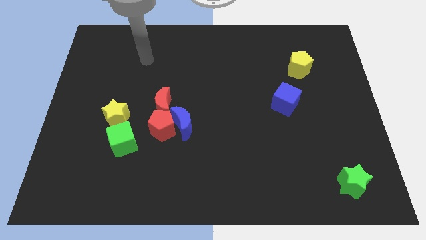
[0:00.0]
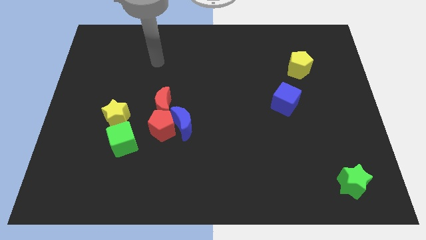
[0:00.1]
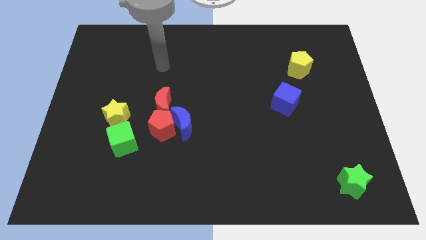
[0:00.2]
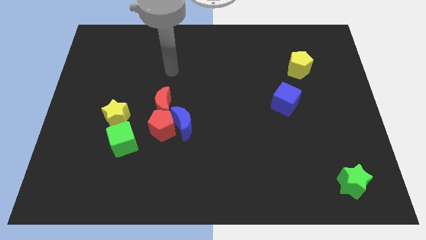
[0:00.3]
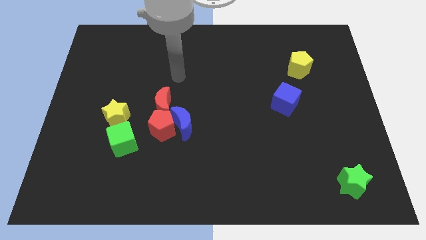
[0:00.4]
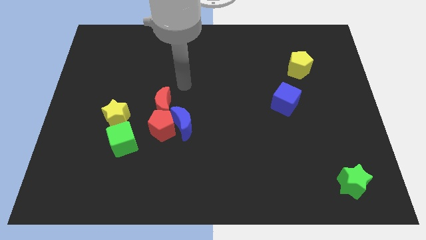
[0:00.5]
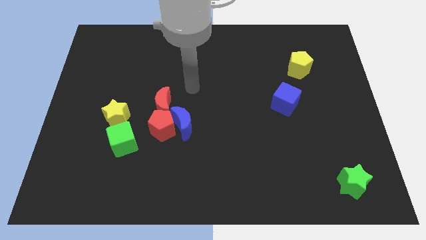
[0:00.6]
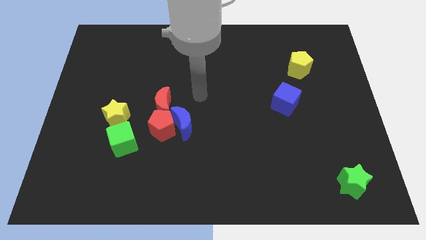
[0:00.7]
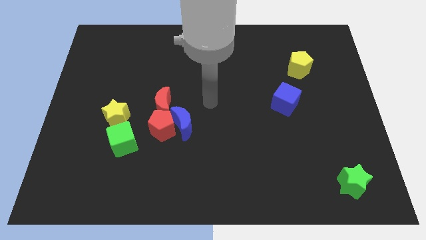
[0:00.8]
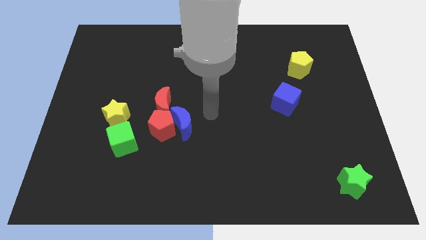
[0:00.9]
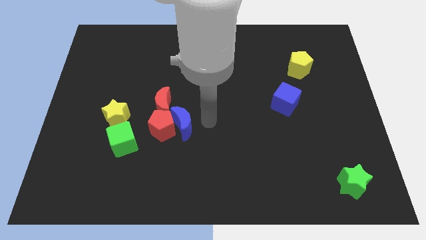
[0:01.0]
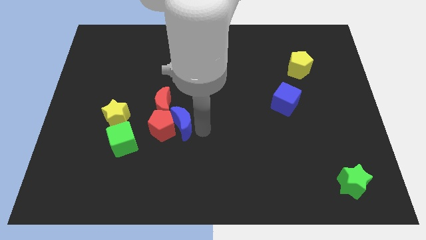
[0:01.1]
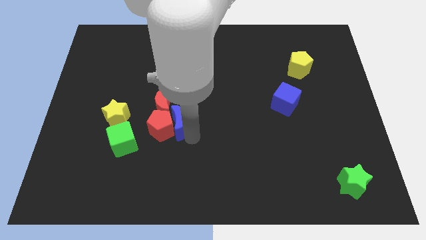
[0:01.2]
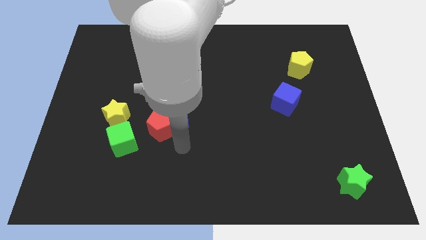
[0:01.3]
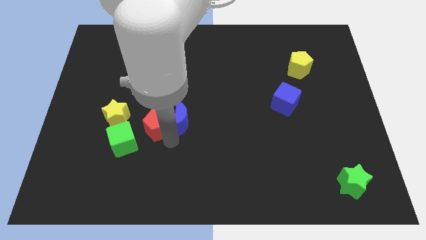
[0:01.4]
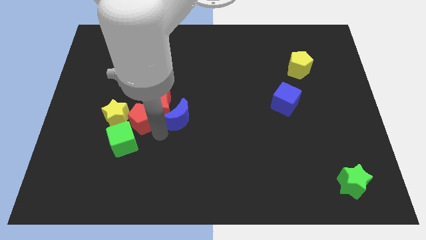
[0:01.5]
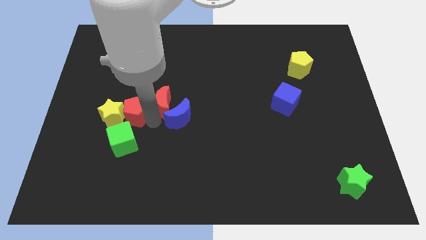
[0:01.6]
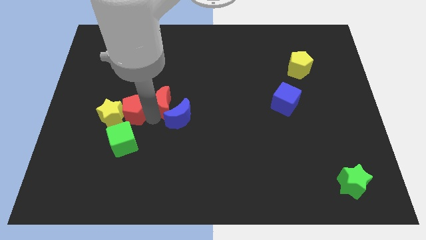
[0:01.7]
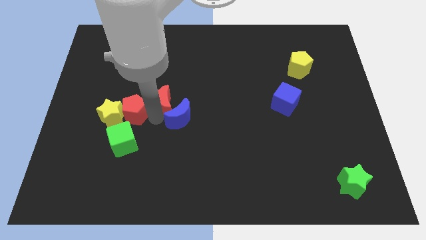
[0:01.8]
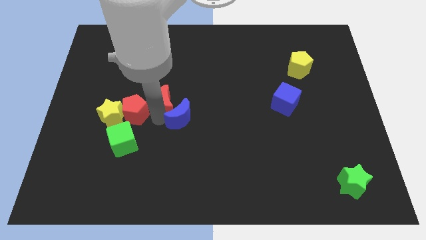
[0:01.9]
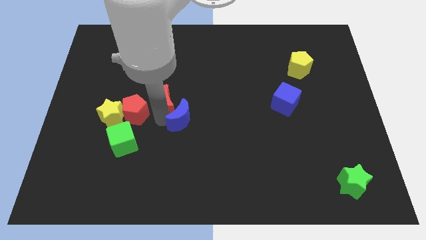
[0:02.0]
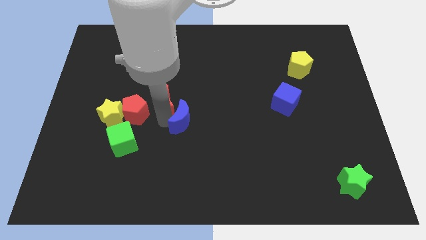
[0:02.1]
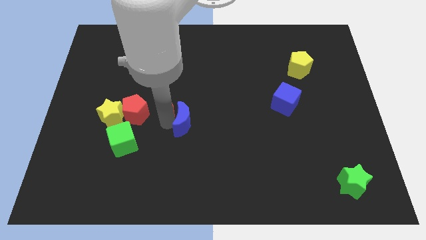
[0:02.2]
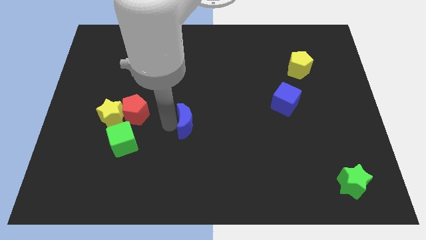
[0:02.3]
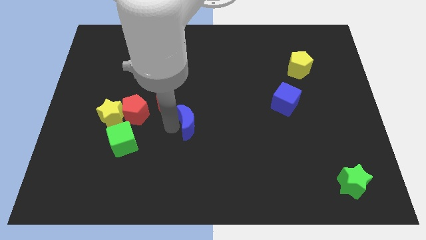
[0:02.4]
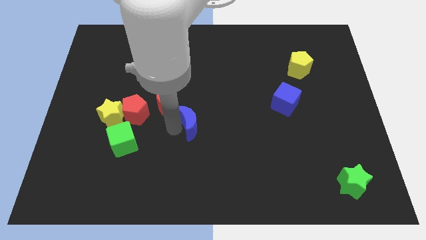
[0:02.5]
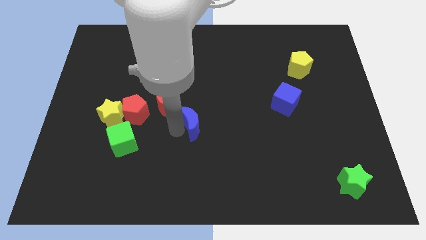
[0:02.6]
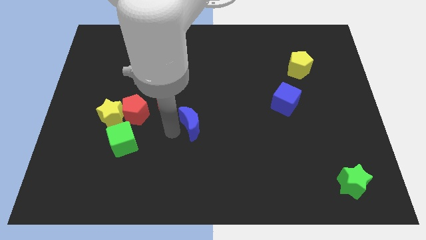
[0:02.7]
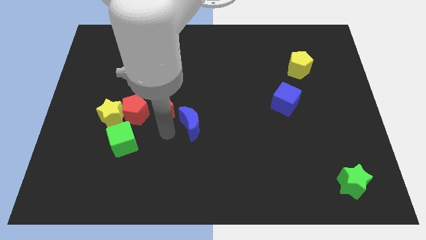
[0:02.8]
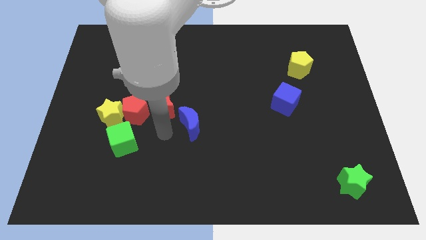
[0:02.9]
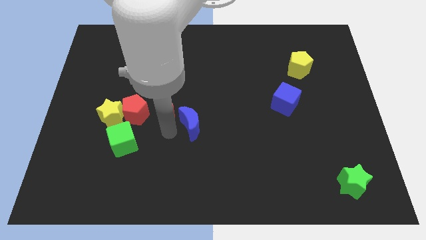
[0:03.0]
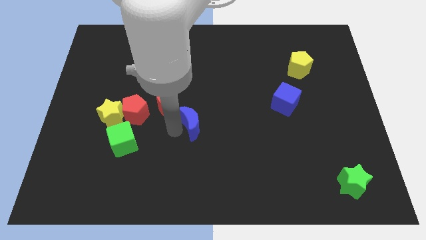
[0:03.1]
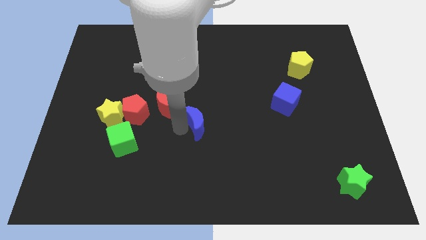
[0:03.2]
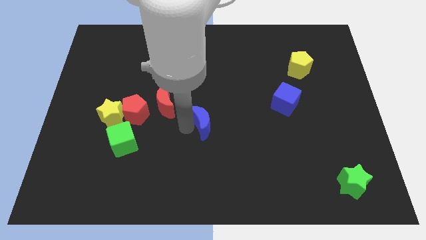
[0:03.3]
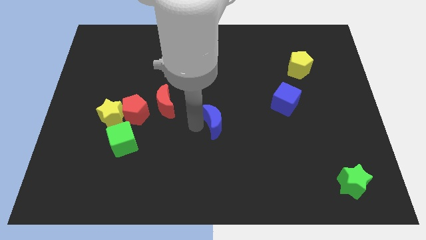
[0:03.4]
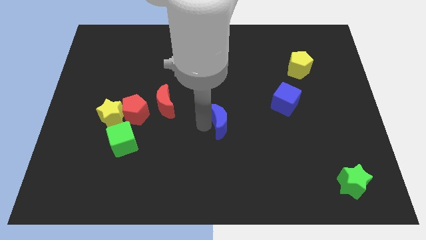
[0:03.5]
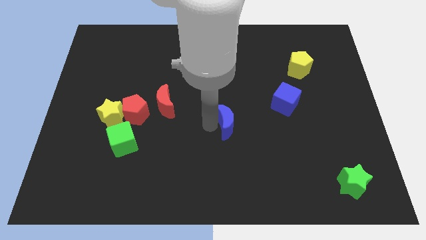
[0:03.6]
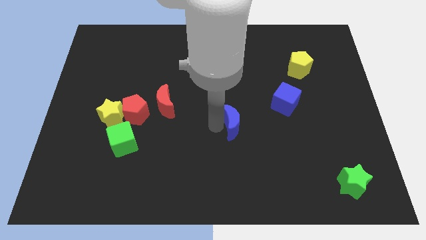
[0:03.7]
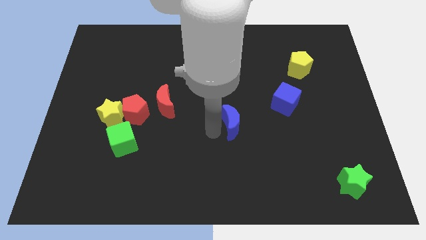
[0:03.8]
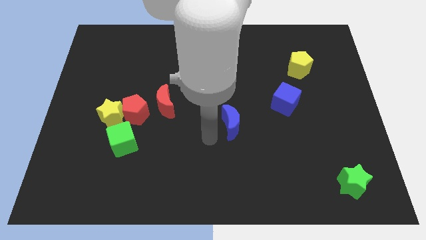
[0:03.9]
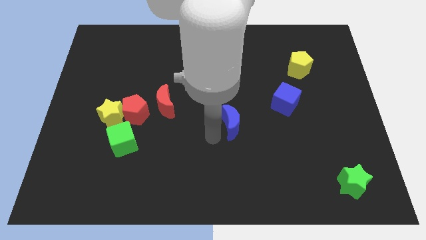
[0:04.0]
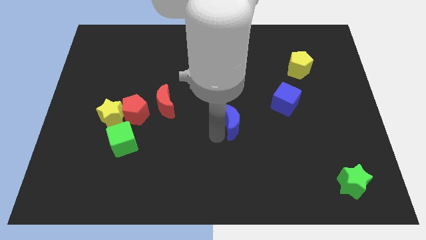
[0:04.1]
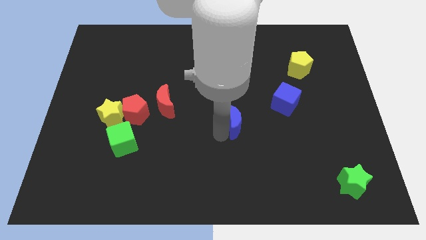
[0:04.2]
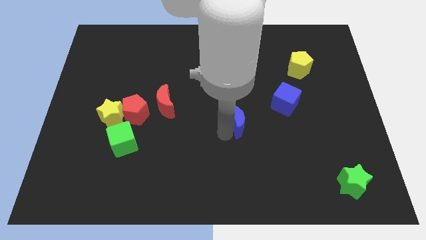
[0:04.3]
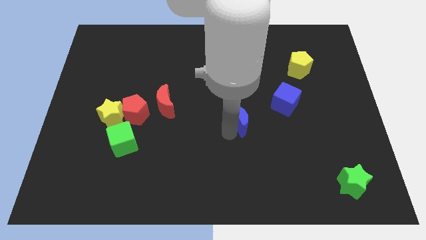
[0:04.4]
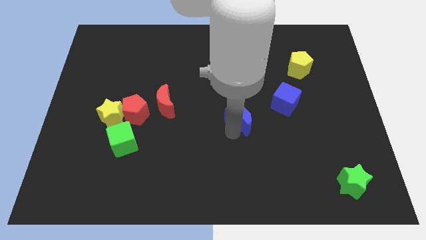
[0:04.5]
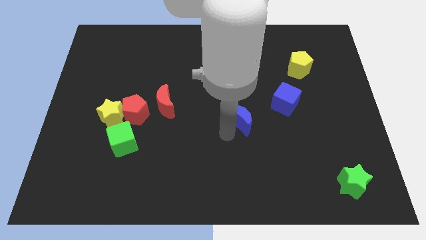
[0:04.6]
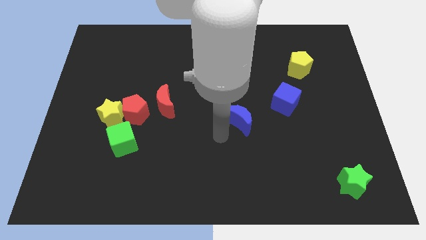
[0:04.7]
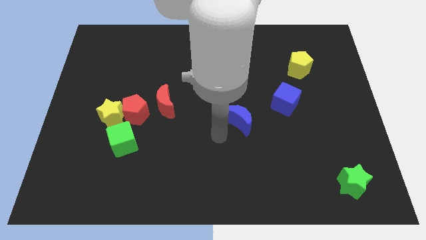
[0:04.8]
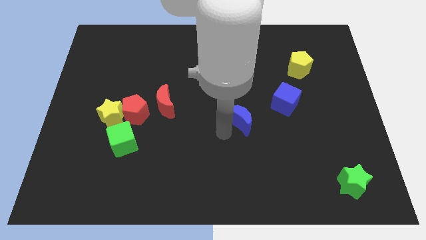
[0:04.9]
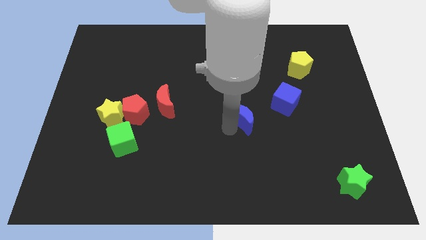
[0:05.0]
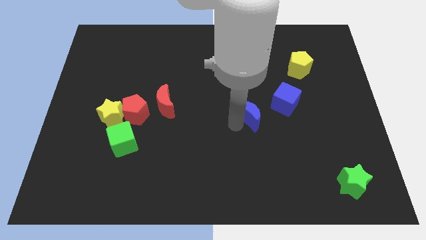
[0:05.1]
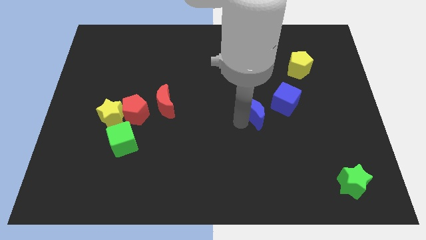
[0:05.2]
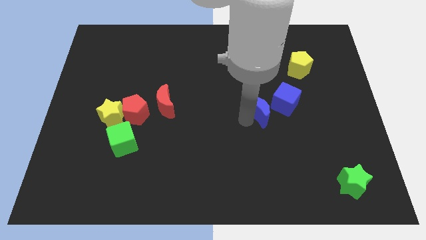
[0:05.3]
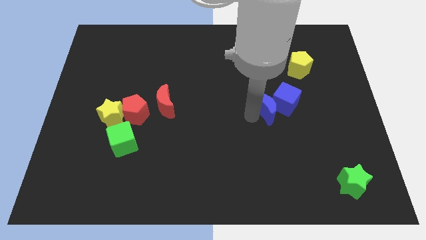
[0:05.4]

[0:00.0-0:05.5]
put the blue moon close to the blue cube

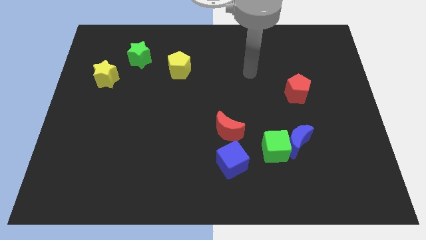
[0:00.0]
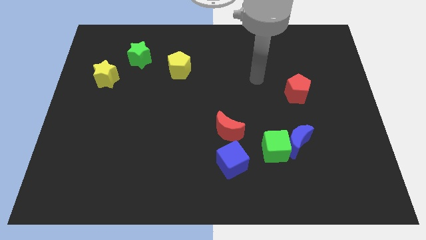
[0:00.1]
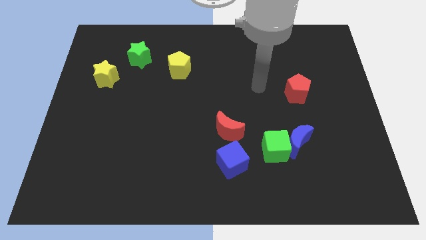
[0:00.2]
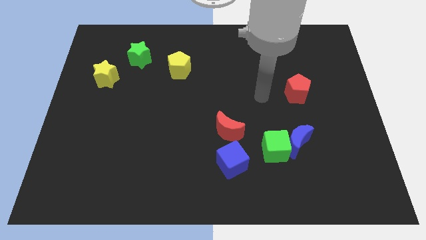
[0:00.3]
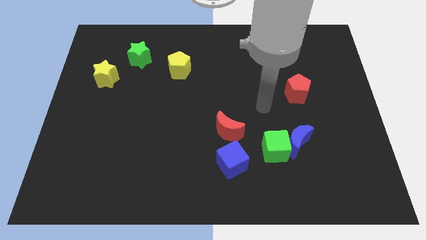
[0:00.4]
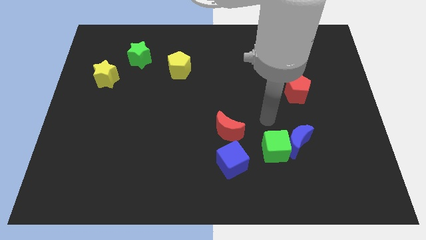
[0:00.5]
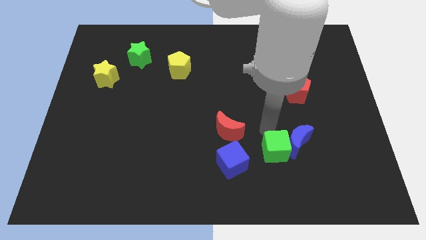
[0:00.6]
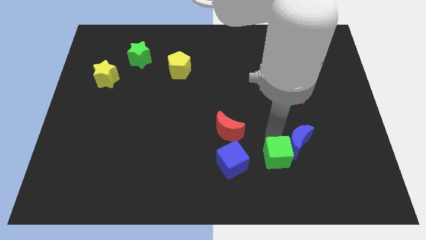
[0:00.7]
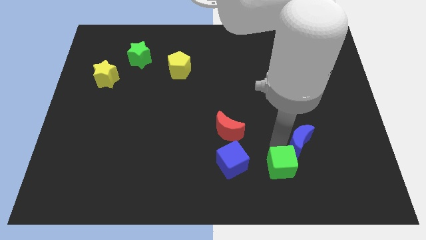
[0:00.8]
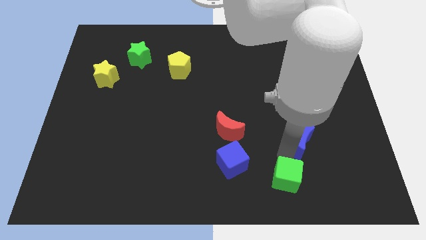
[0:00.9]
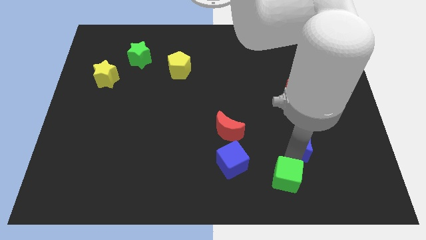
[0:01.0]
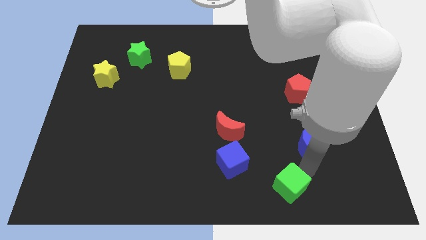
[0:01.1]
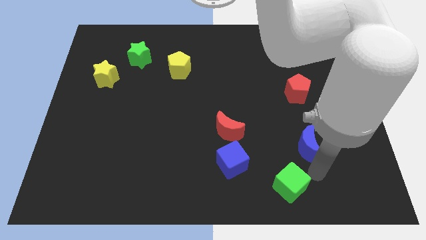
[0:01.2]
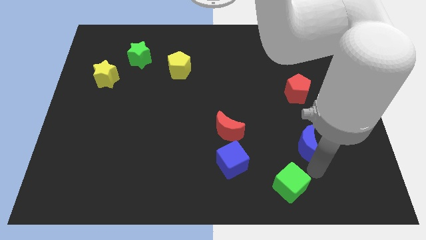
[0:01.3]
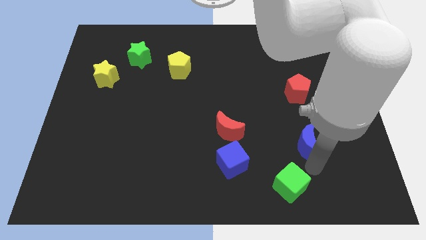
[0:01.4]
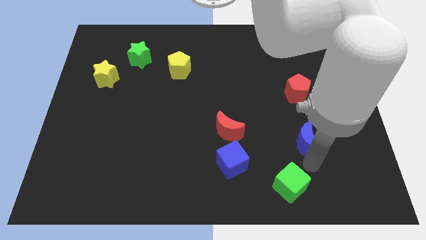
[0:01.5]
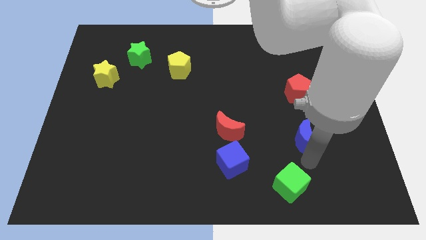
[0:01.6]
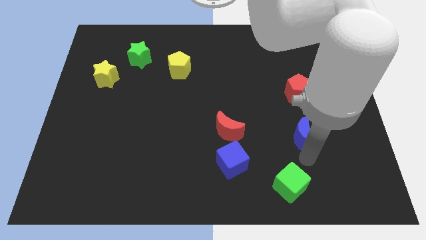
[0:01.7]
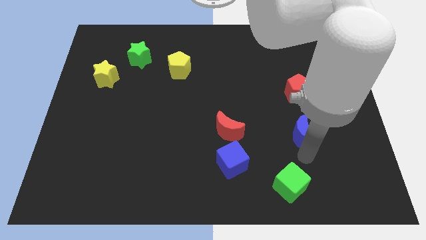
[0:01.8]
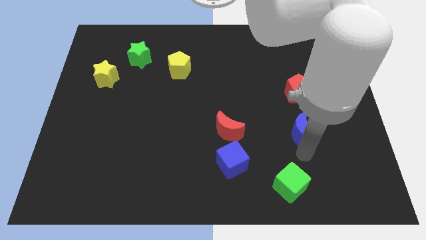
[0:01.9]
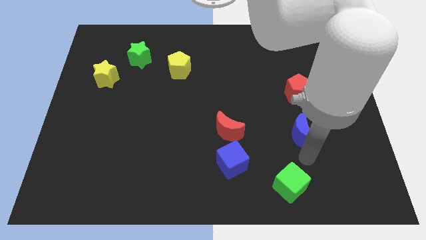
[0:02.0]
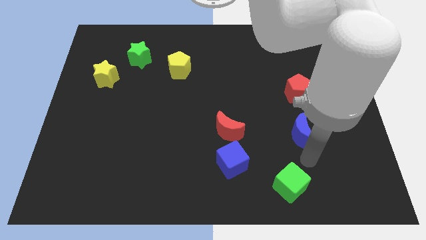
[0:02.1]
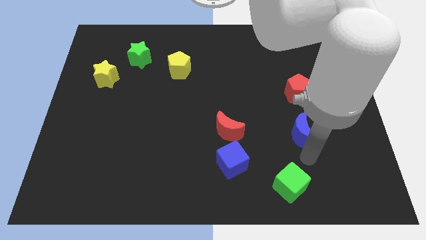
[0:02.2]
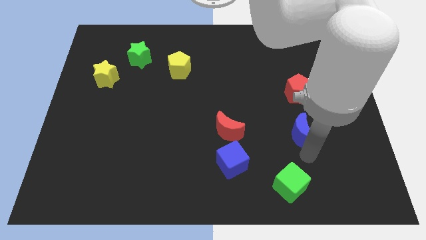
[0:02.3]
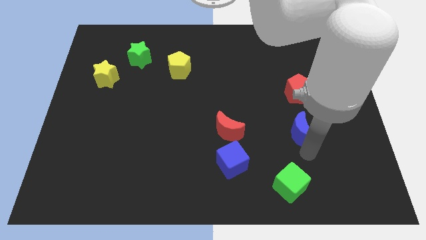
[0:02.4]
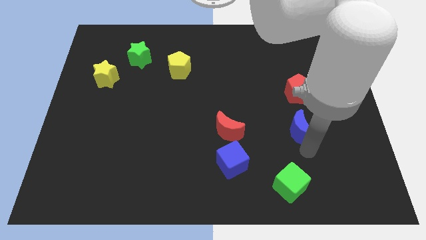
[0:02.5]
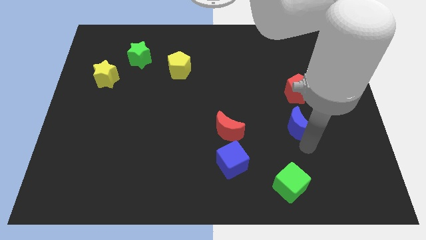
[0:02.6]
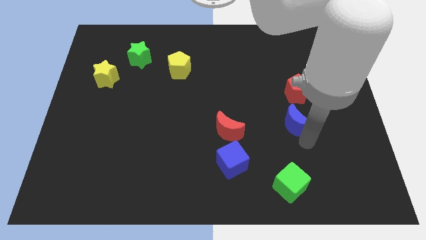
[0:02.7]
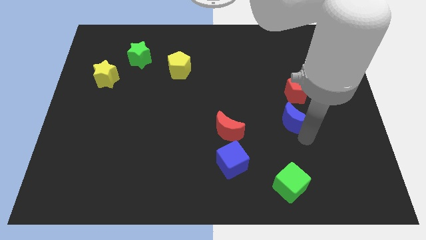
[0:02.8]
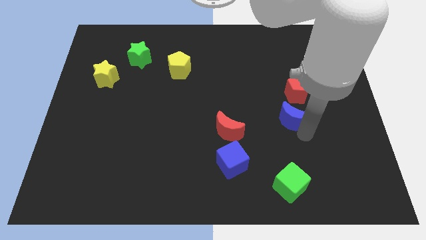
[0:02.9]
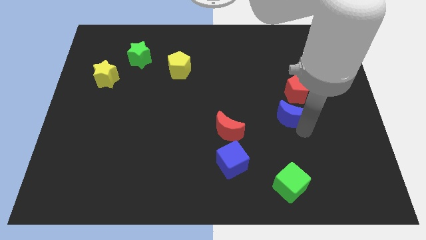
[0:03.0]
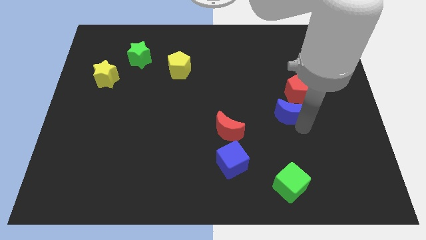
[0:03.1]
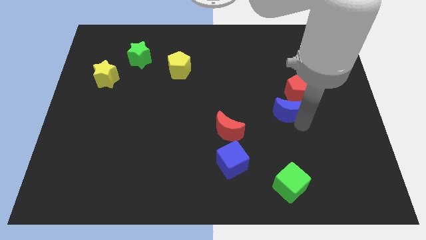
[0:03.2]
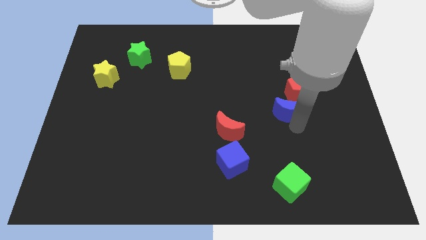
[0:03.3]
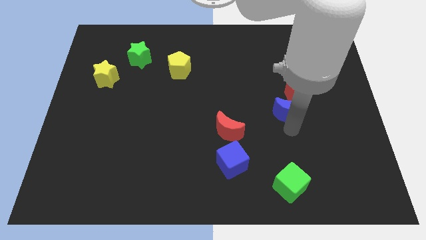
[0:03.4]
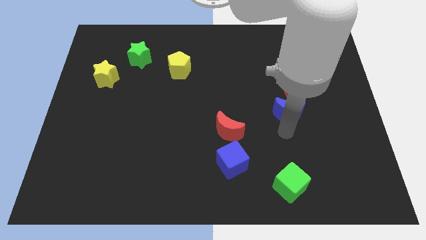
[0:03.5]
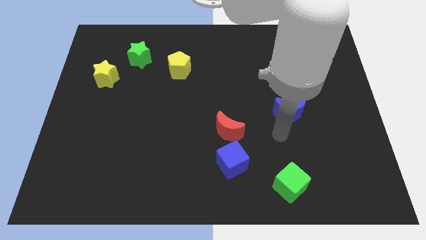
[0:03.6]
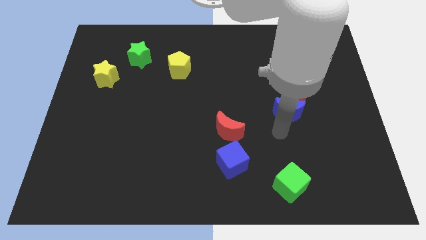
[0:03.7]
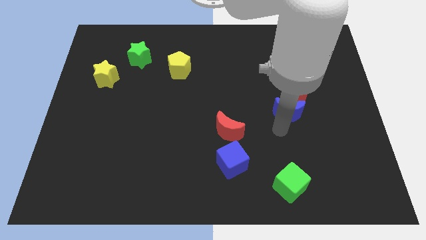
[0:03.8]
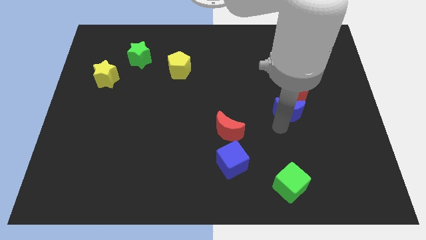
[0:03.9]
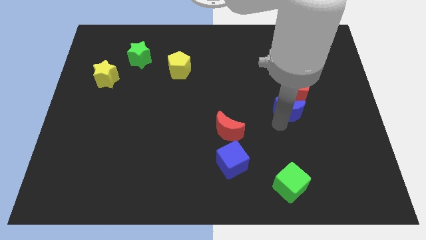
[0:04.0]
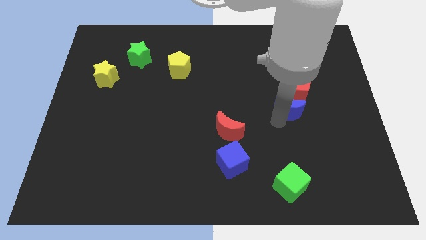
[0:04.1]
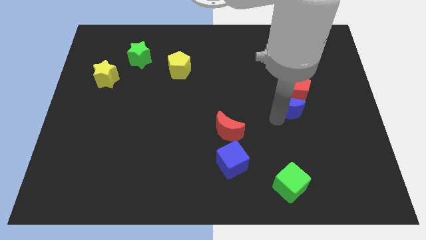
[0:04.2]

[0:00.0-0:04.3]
slide the blue moon next to the red pentagon
